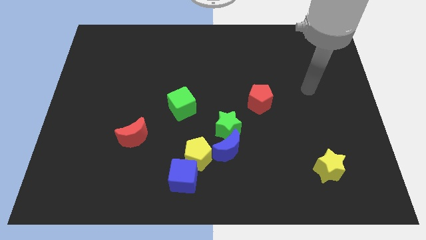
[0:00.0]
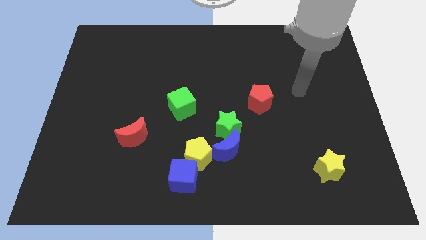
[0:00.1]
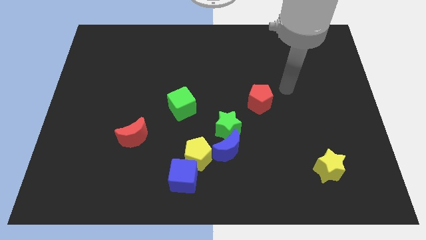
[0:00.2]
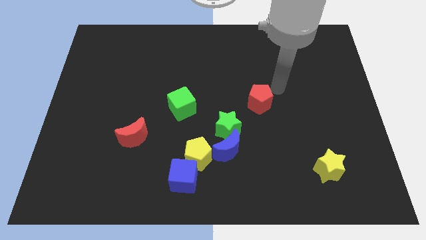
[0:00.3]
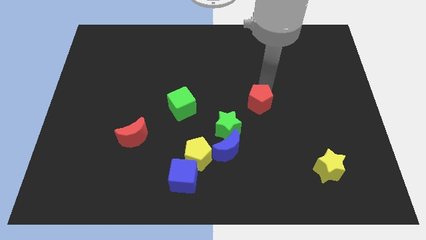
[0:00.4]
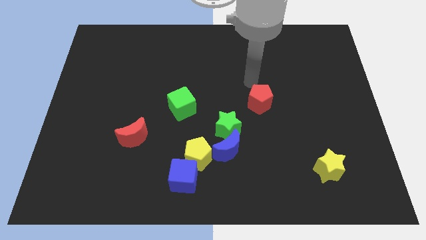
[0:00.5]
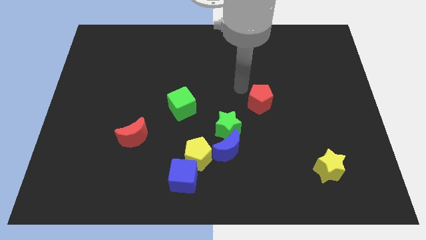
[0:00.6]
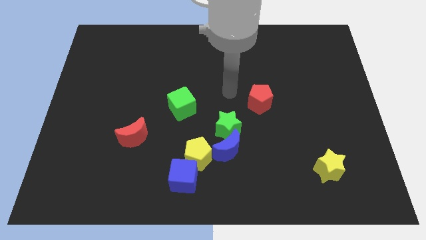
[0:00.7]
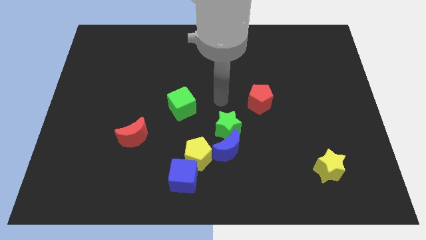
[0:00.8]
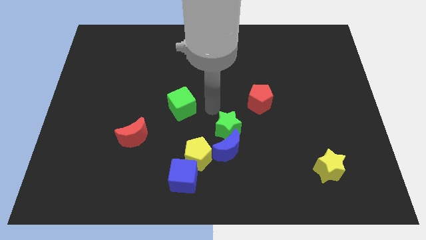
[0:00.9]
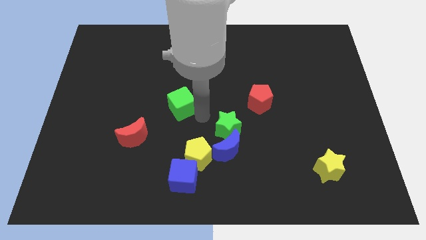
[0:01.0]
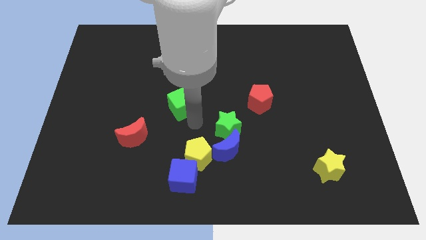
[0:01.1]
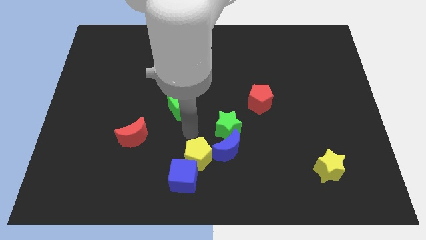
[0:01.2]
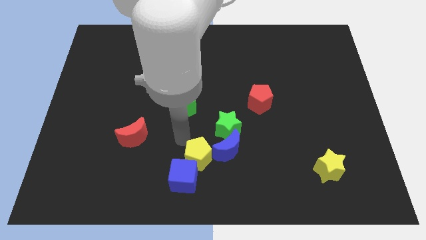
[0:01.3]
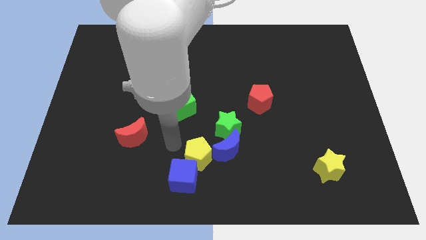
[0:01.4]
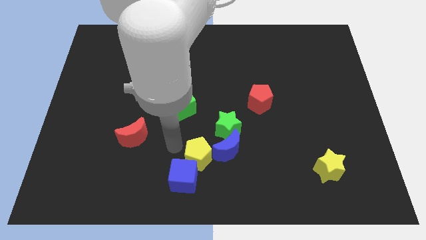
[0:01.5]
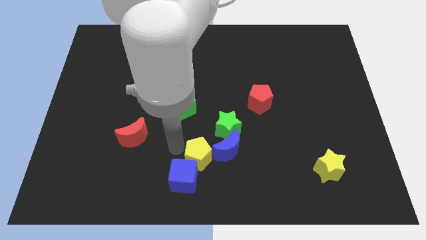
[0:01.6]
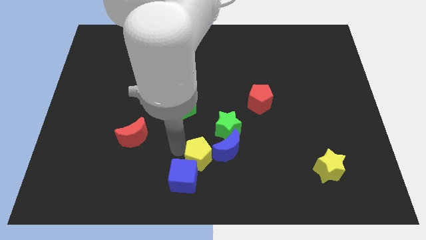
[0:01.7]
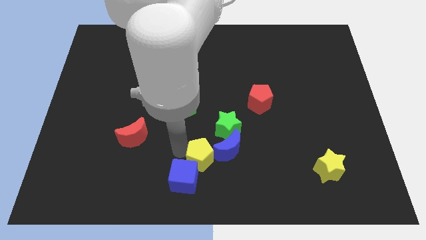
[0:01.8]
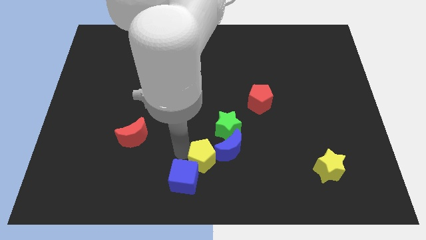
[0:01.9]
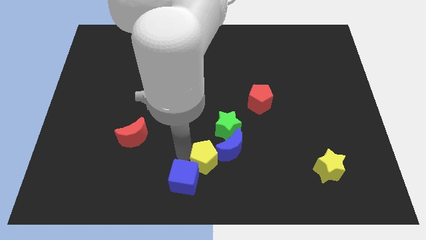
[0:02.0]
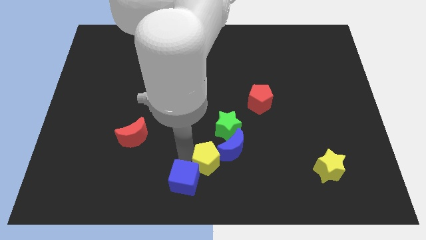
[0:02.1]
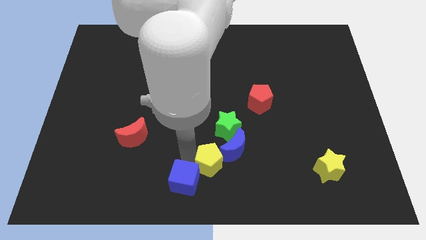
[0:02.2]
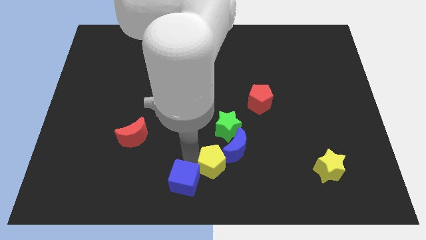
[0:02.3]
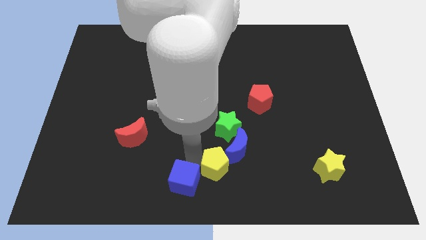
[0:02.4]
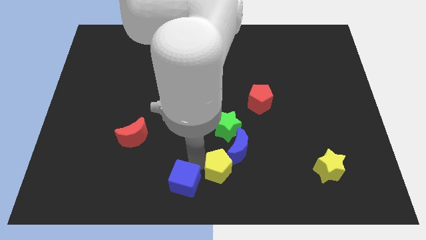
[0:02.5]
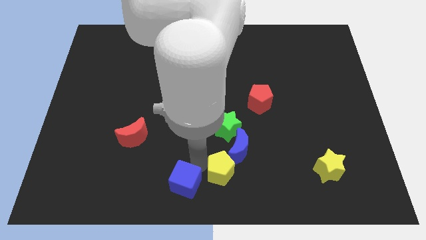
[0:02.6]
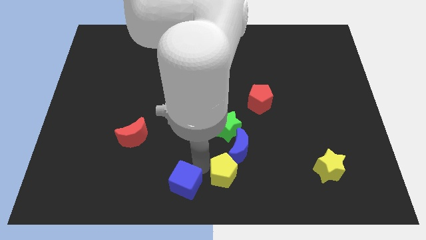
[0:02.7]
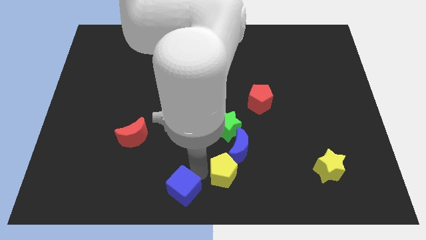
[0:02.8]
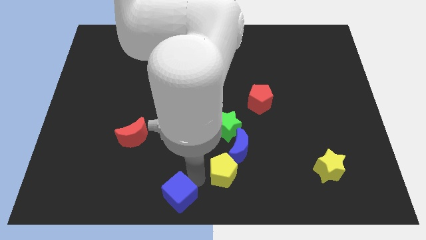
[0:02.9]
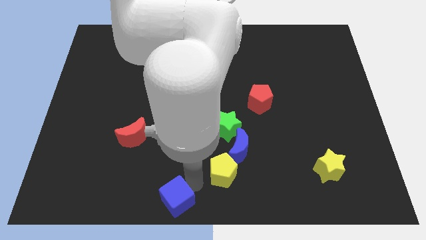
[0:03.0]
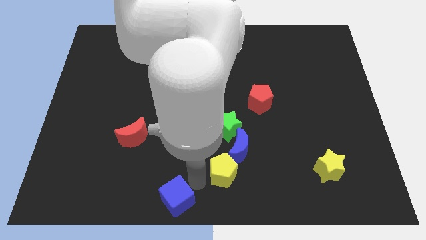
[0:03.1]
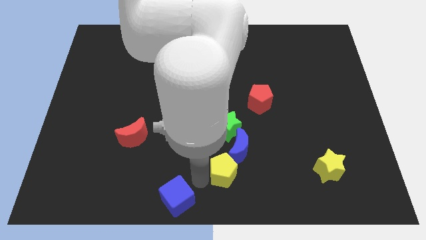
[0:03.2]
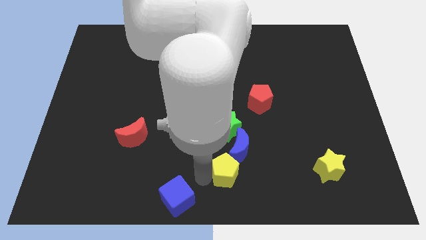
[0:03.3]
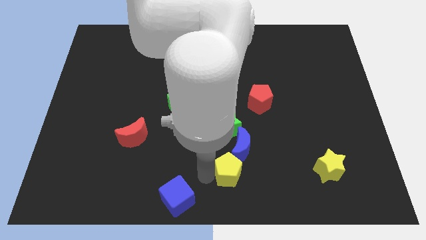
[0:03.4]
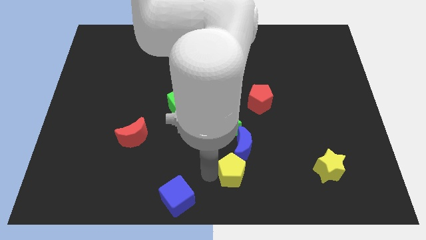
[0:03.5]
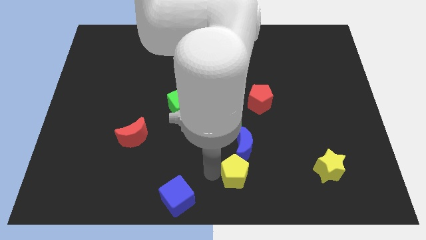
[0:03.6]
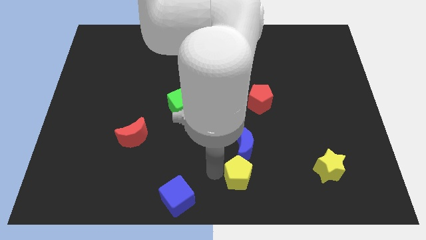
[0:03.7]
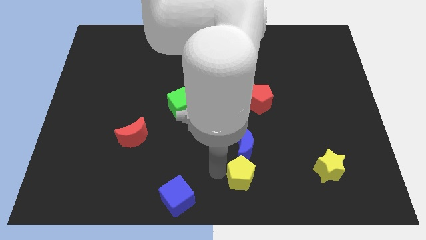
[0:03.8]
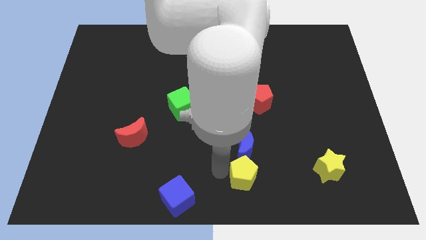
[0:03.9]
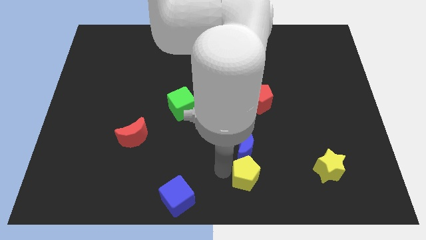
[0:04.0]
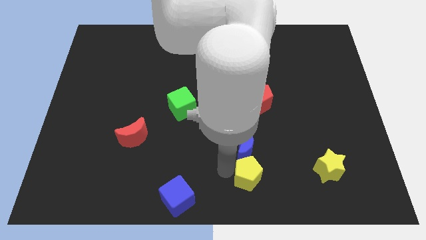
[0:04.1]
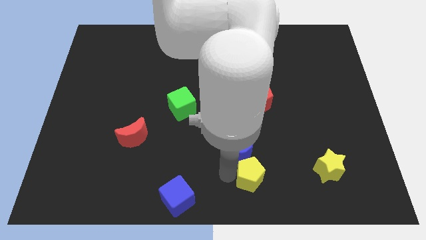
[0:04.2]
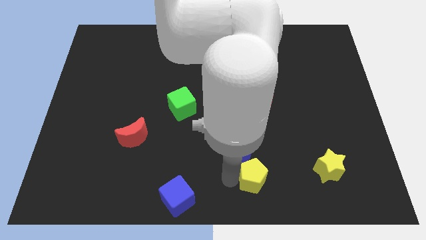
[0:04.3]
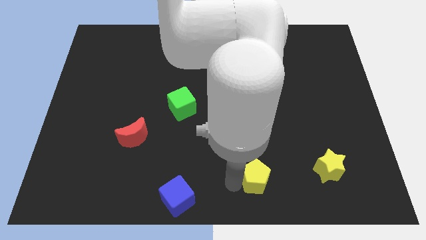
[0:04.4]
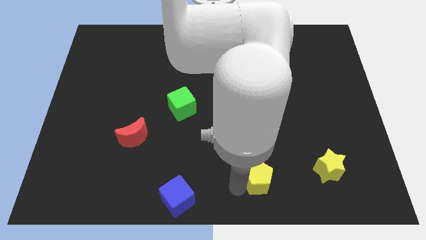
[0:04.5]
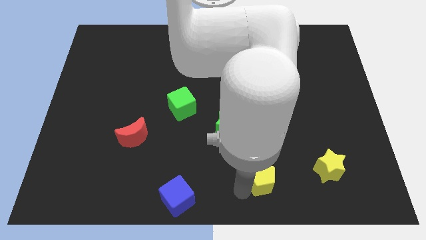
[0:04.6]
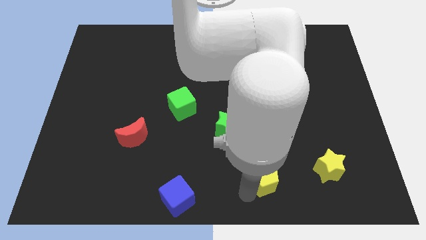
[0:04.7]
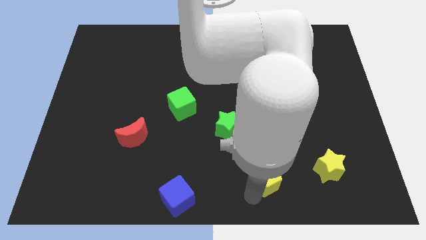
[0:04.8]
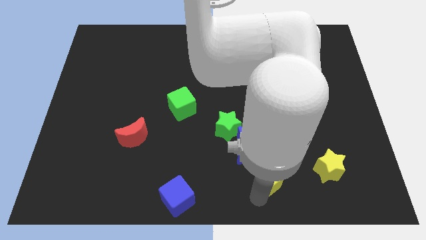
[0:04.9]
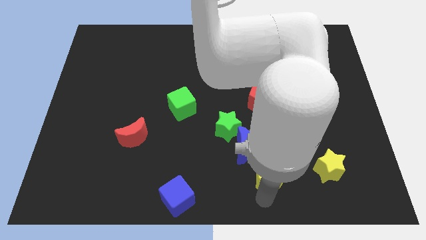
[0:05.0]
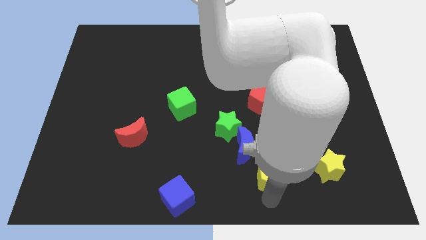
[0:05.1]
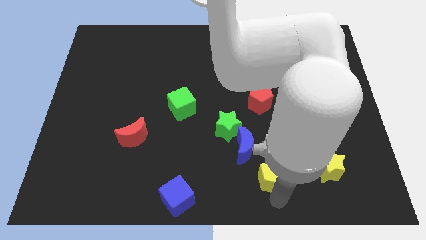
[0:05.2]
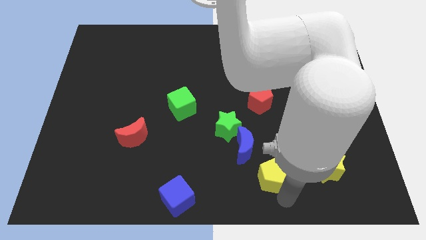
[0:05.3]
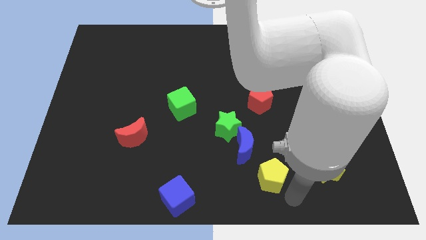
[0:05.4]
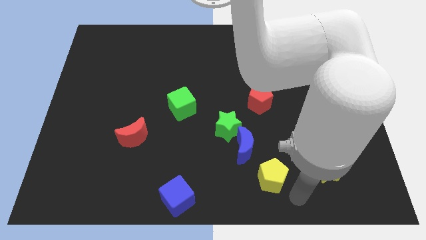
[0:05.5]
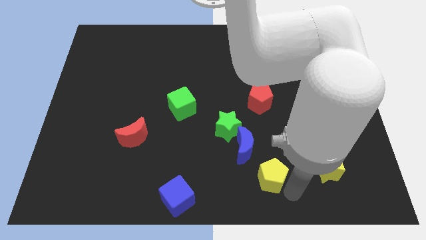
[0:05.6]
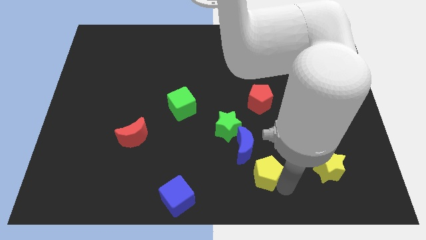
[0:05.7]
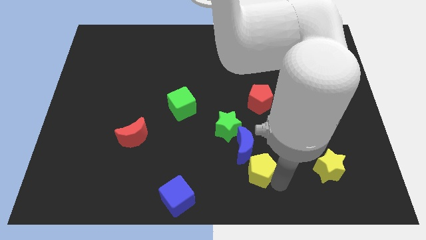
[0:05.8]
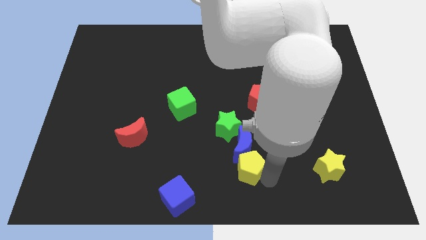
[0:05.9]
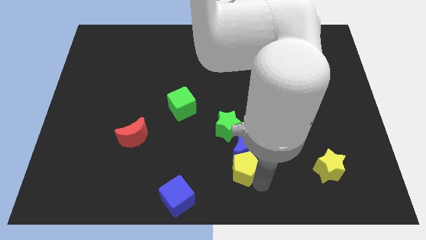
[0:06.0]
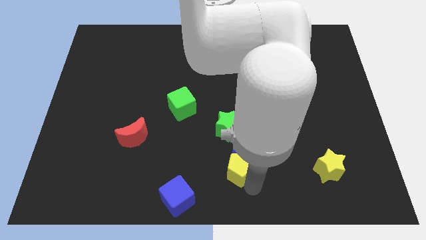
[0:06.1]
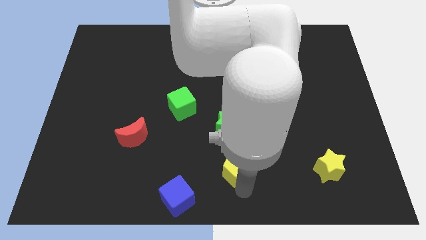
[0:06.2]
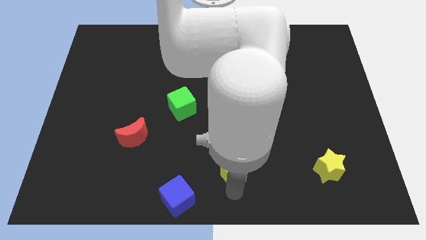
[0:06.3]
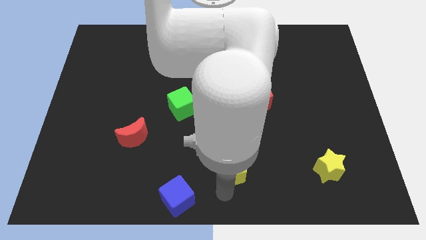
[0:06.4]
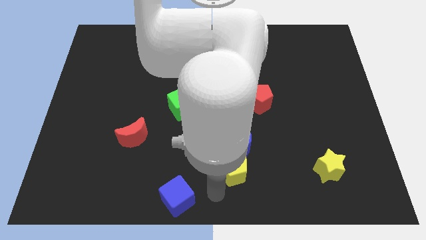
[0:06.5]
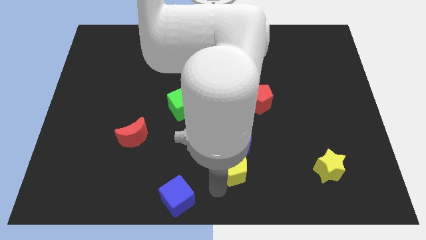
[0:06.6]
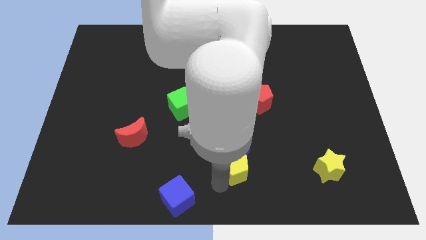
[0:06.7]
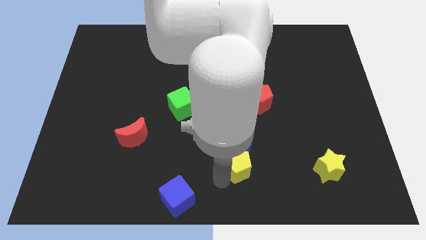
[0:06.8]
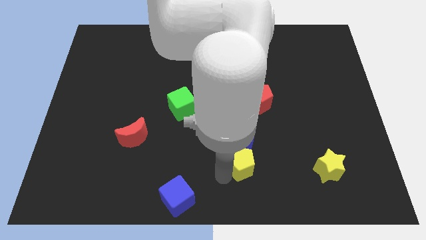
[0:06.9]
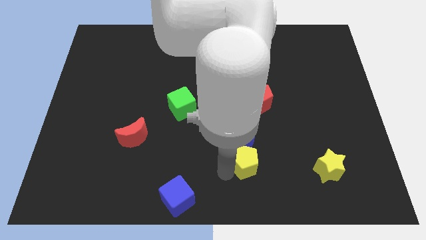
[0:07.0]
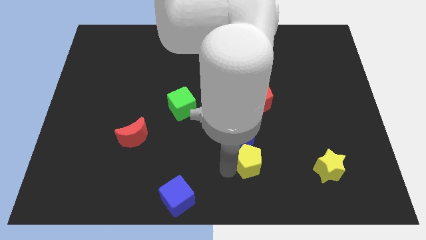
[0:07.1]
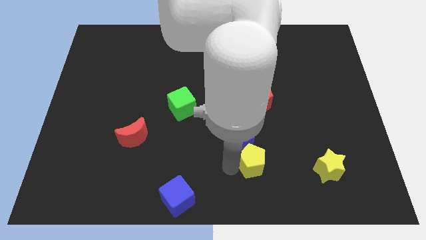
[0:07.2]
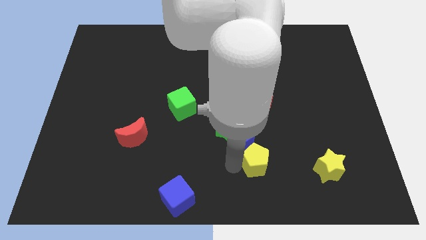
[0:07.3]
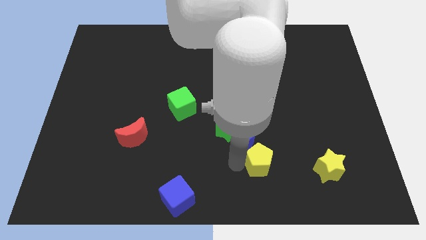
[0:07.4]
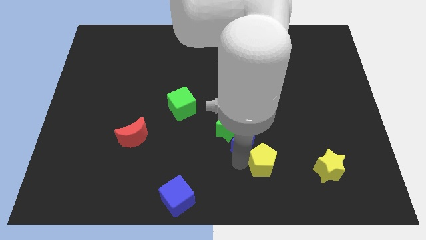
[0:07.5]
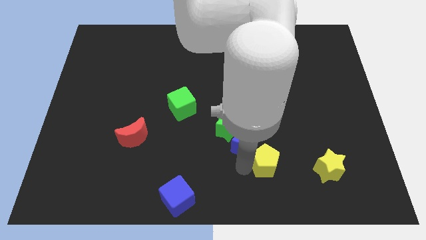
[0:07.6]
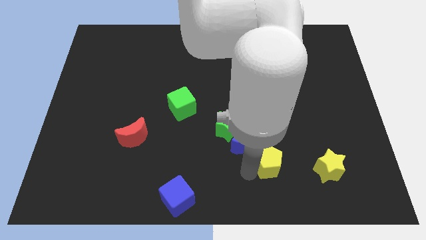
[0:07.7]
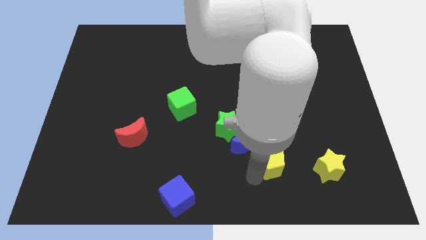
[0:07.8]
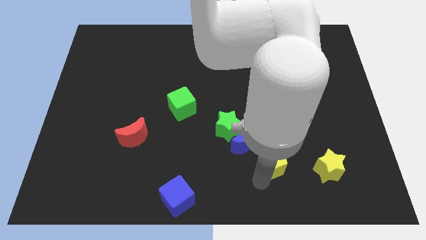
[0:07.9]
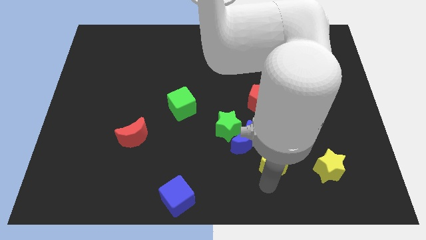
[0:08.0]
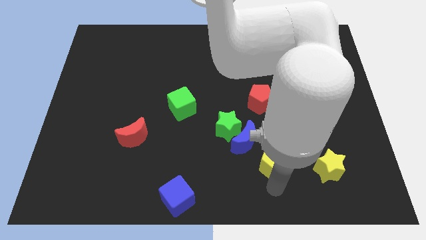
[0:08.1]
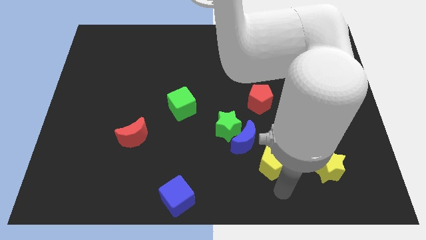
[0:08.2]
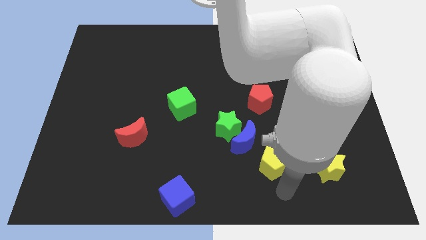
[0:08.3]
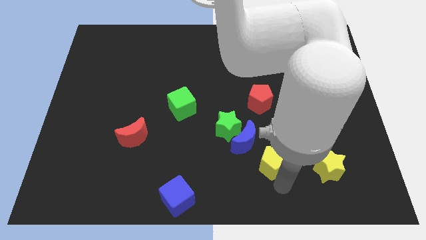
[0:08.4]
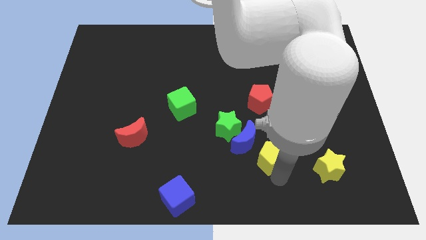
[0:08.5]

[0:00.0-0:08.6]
move the yellow pentagon to the bottom side of the red pentagon
